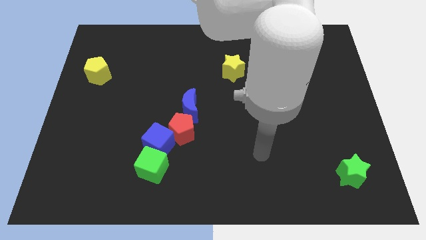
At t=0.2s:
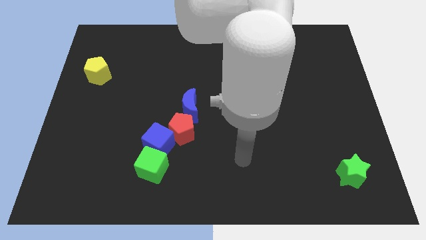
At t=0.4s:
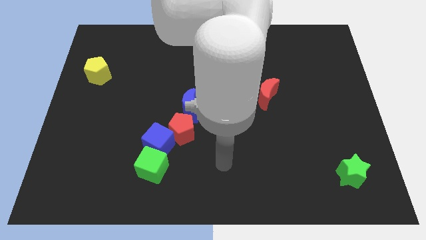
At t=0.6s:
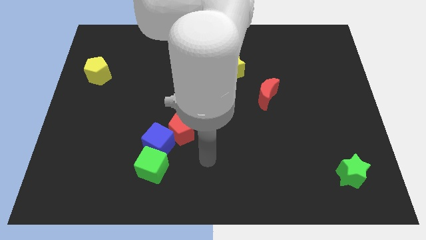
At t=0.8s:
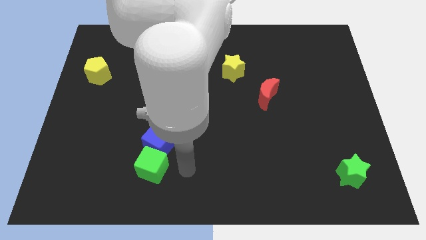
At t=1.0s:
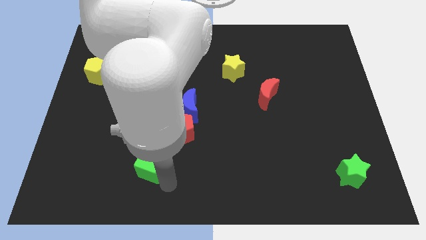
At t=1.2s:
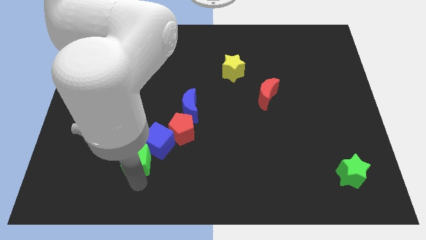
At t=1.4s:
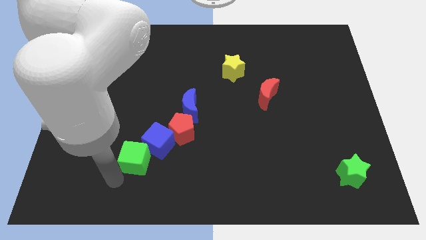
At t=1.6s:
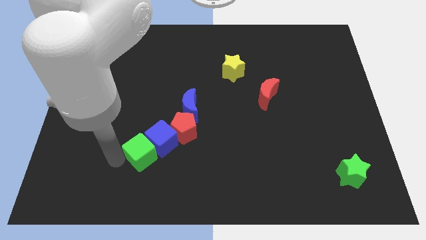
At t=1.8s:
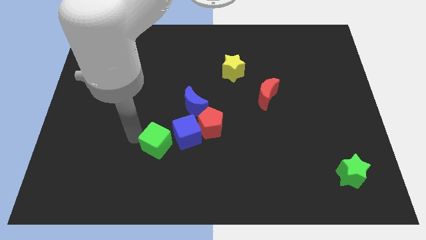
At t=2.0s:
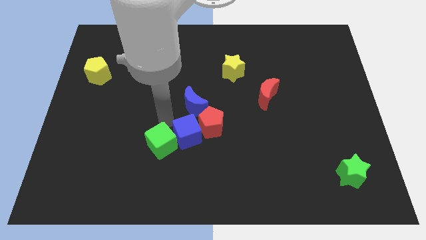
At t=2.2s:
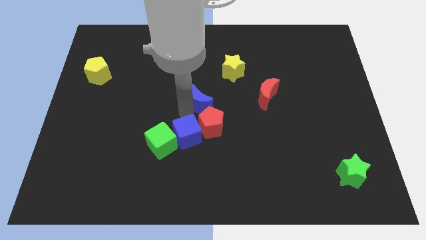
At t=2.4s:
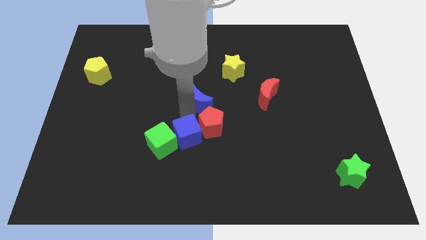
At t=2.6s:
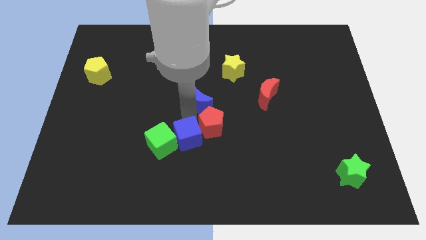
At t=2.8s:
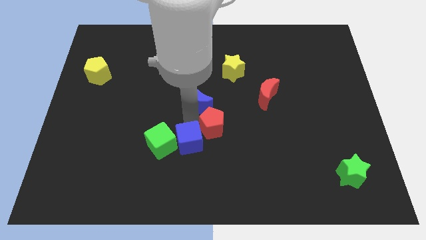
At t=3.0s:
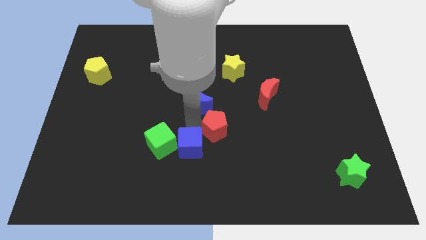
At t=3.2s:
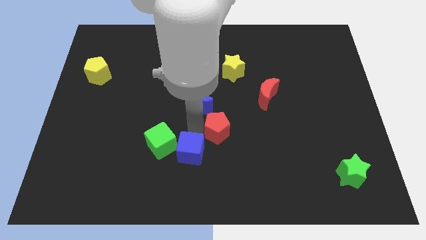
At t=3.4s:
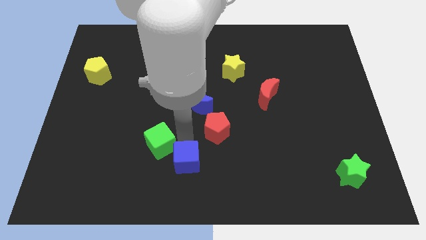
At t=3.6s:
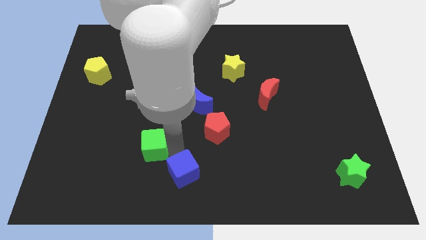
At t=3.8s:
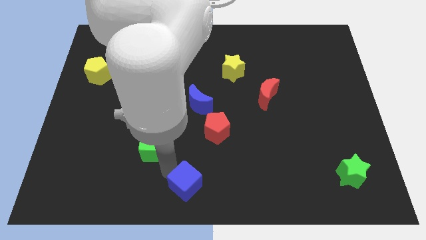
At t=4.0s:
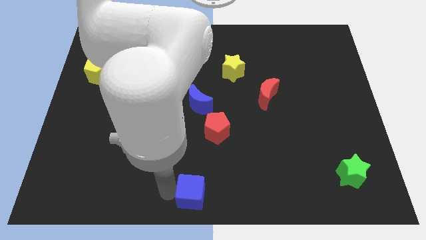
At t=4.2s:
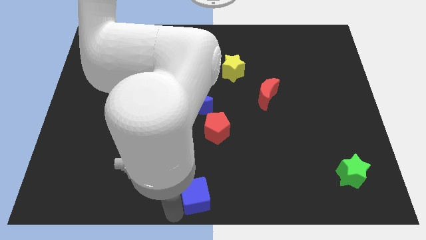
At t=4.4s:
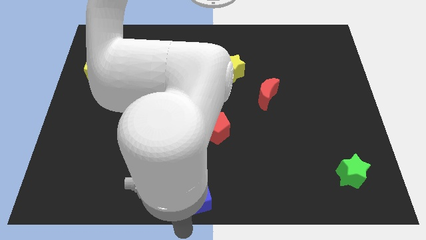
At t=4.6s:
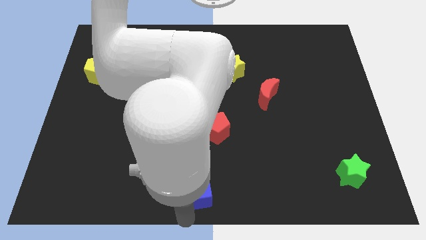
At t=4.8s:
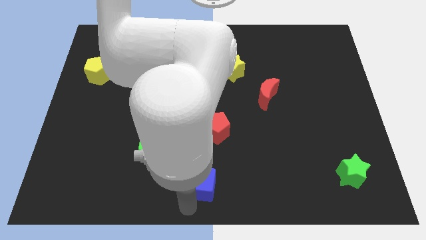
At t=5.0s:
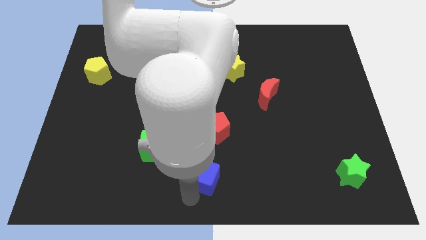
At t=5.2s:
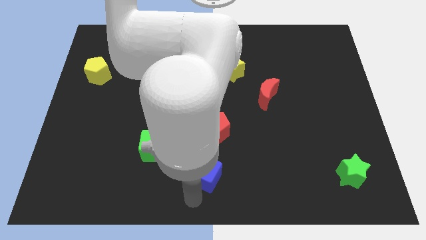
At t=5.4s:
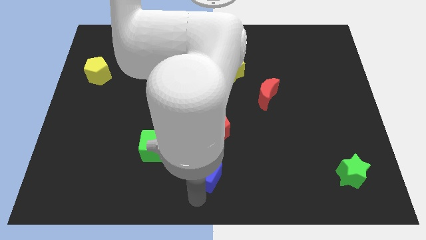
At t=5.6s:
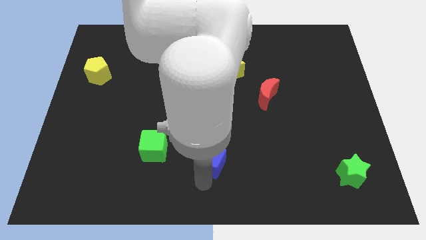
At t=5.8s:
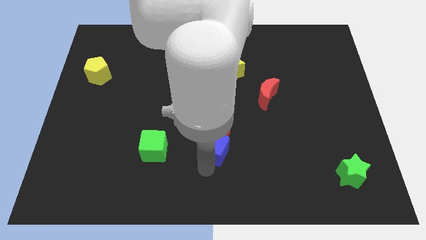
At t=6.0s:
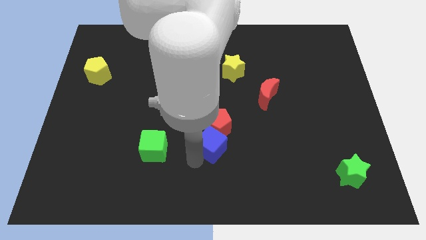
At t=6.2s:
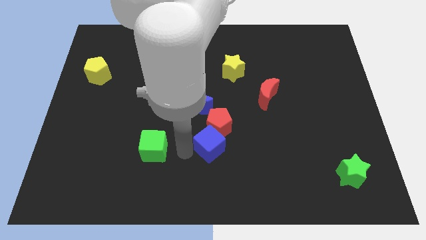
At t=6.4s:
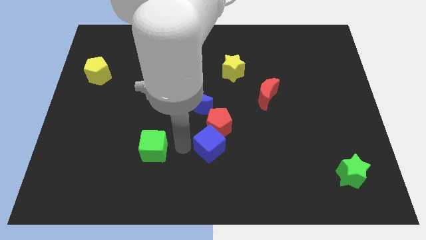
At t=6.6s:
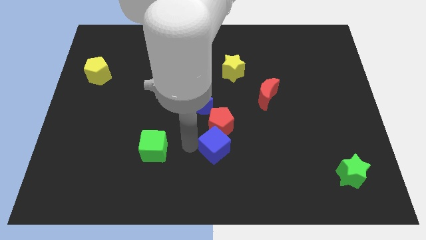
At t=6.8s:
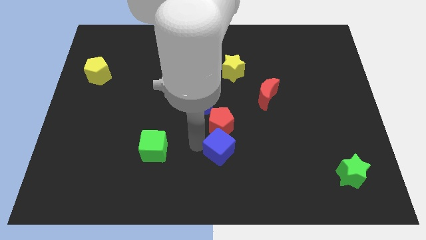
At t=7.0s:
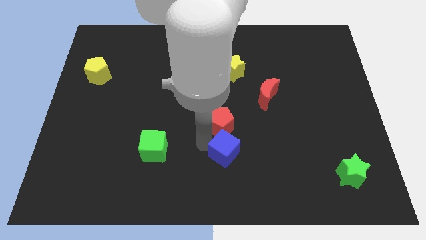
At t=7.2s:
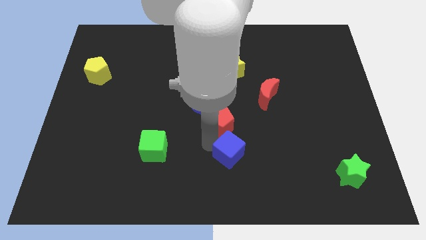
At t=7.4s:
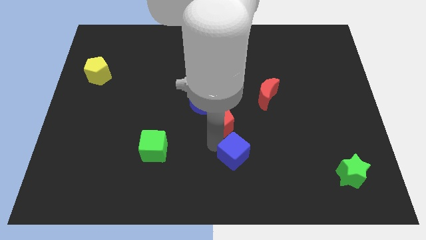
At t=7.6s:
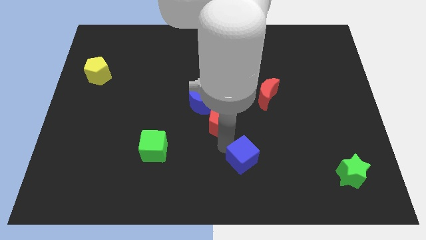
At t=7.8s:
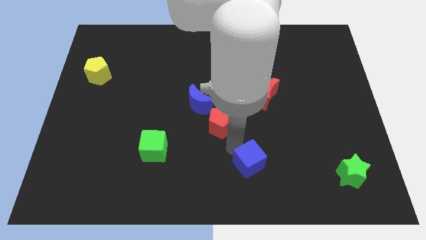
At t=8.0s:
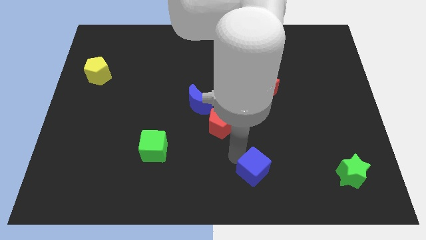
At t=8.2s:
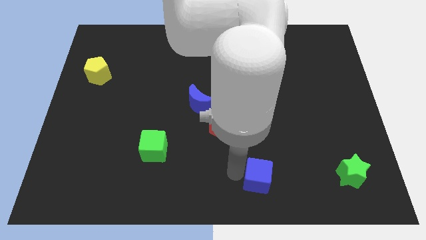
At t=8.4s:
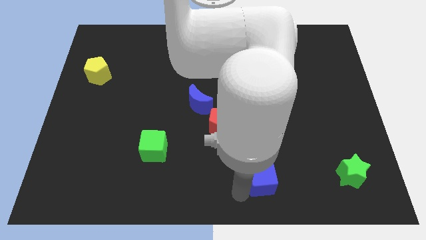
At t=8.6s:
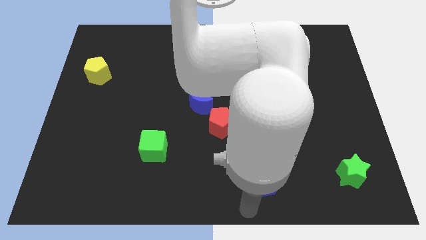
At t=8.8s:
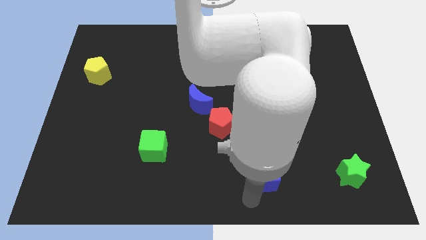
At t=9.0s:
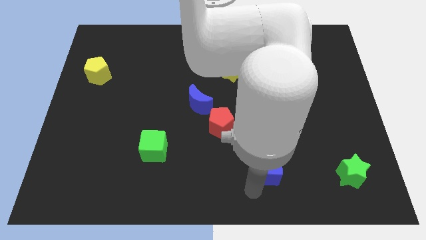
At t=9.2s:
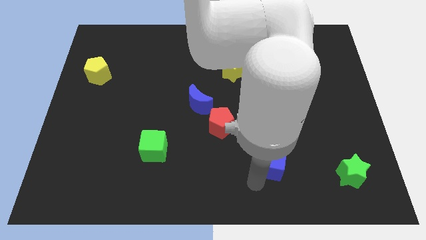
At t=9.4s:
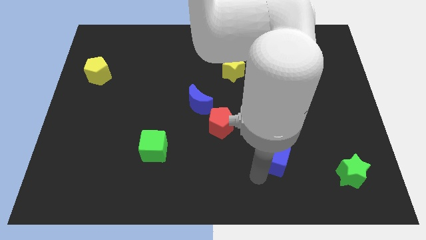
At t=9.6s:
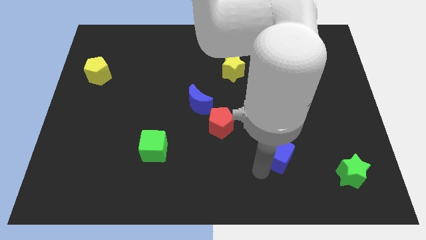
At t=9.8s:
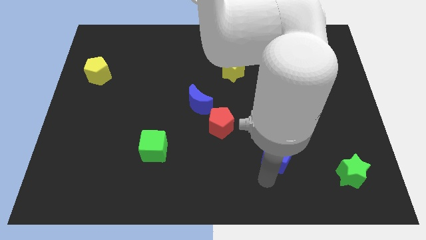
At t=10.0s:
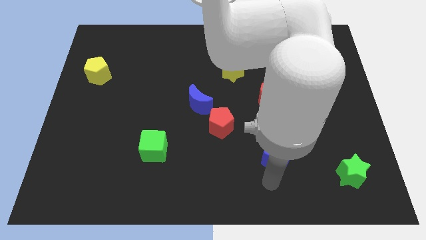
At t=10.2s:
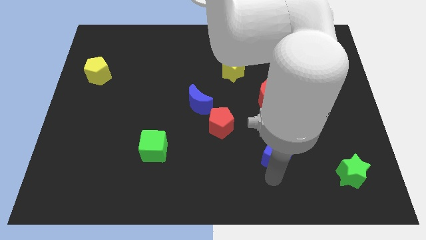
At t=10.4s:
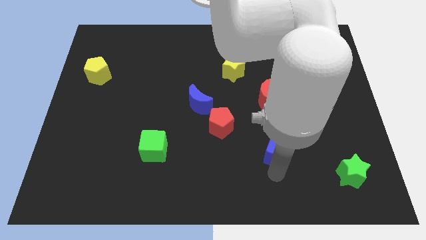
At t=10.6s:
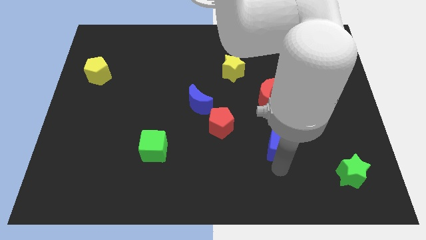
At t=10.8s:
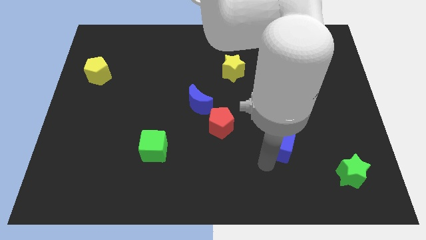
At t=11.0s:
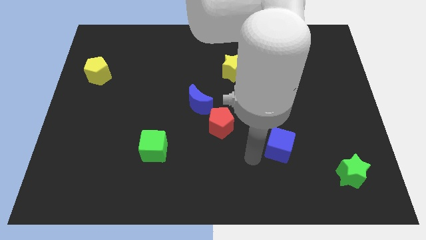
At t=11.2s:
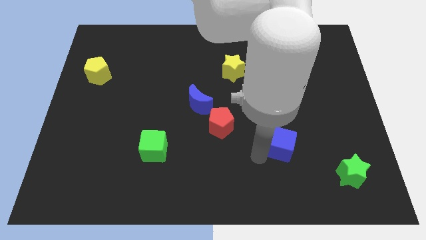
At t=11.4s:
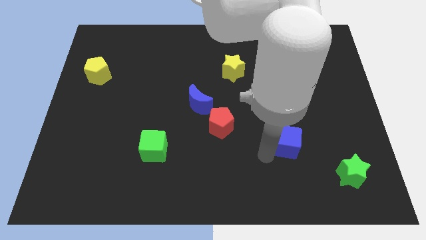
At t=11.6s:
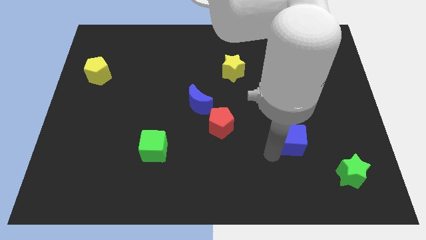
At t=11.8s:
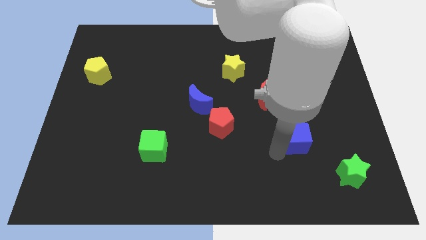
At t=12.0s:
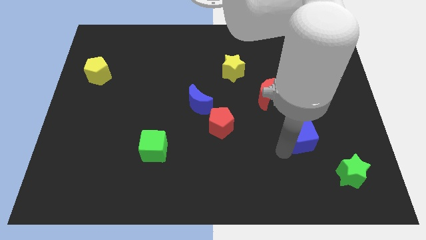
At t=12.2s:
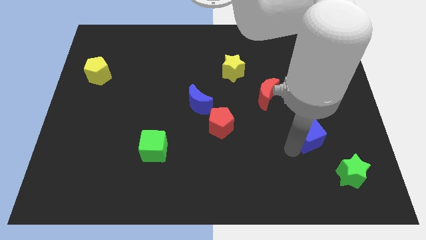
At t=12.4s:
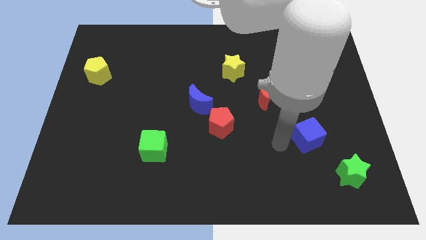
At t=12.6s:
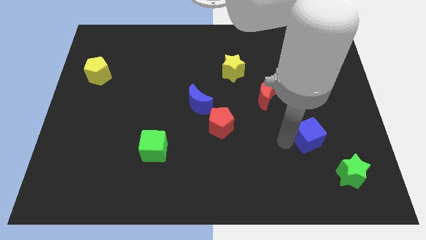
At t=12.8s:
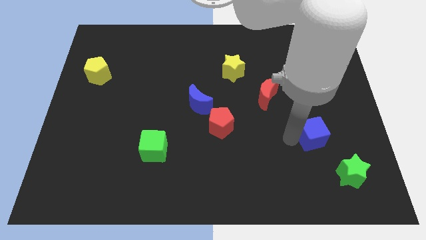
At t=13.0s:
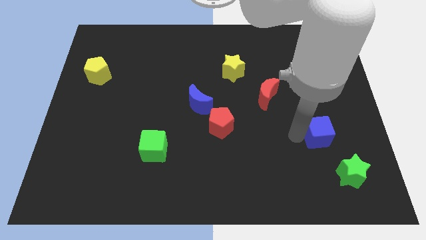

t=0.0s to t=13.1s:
slide the blue cube above the green star

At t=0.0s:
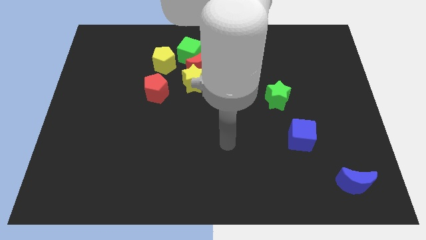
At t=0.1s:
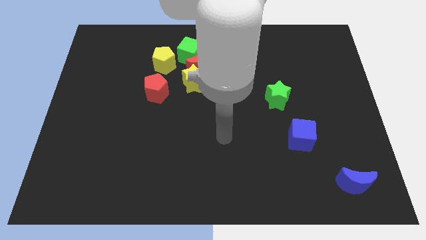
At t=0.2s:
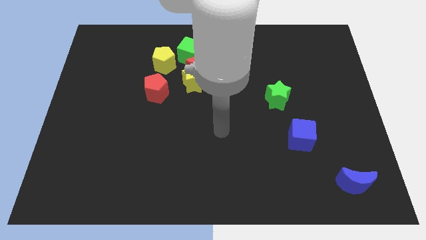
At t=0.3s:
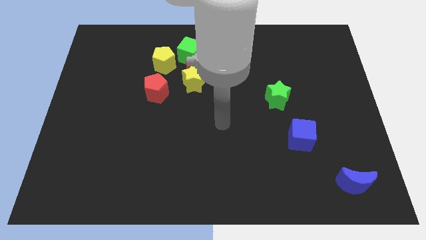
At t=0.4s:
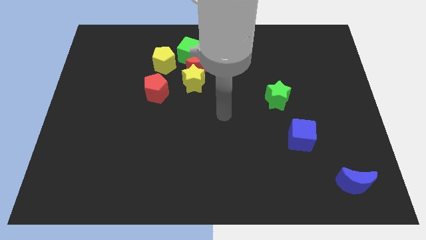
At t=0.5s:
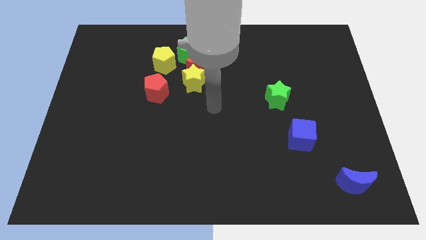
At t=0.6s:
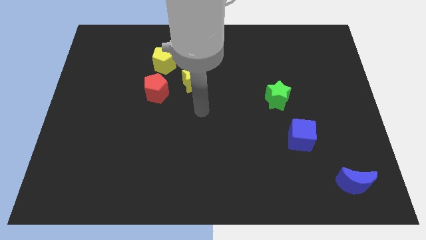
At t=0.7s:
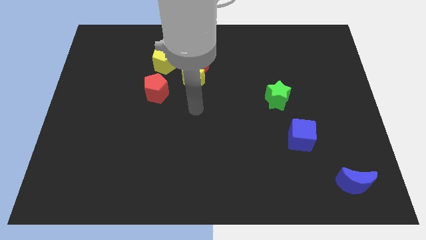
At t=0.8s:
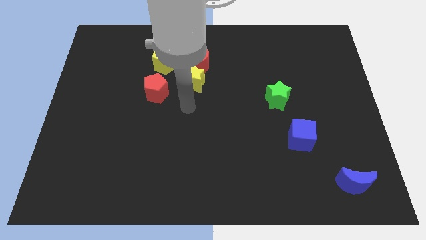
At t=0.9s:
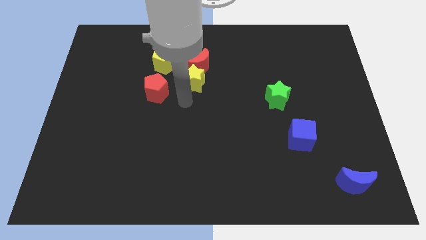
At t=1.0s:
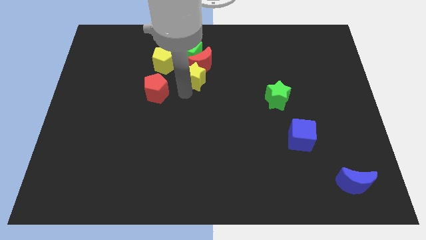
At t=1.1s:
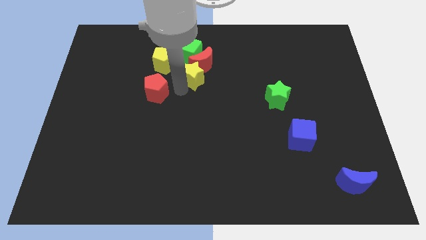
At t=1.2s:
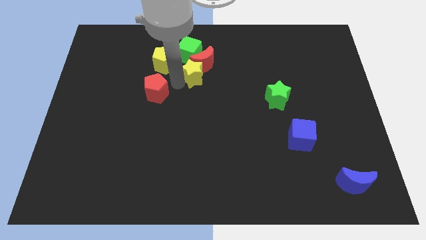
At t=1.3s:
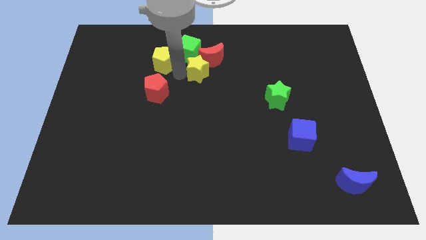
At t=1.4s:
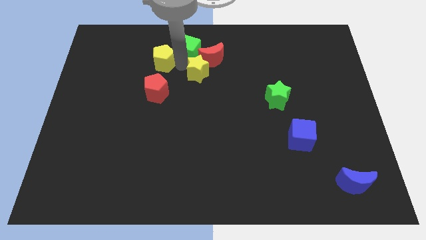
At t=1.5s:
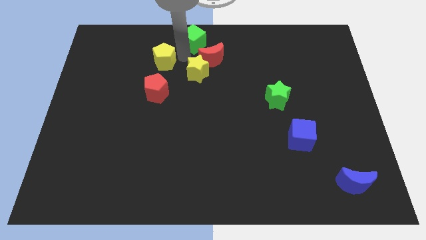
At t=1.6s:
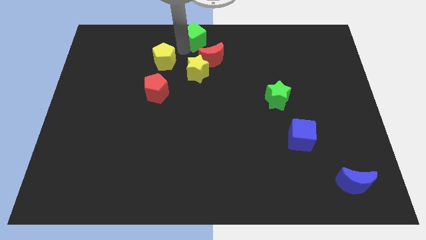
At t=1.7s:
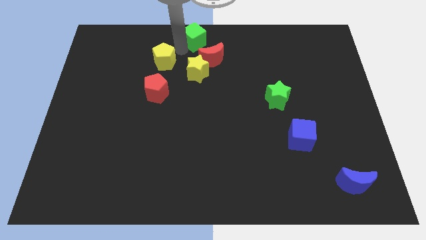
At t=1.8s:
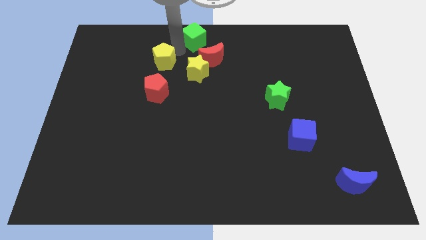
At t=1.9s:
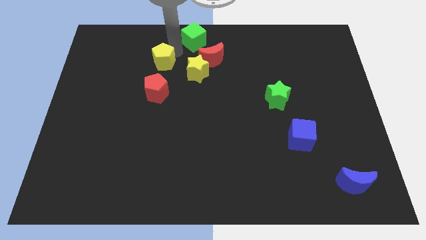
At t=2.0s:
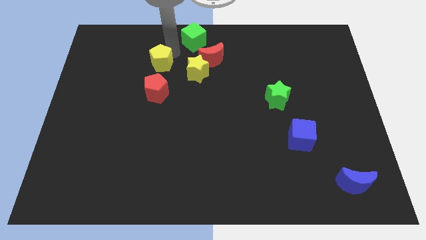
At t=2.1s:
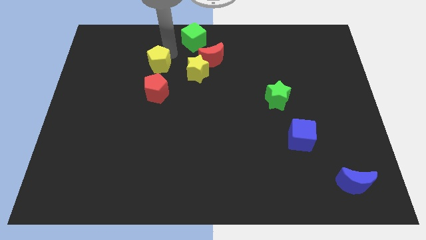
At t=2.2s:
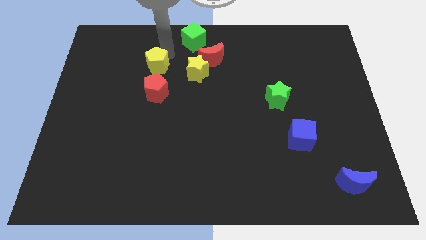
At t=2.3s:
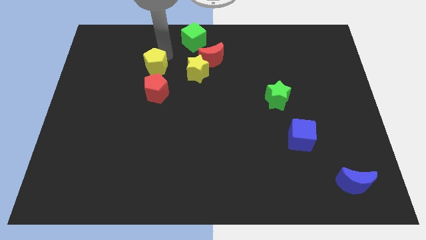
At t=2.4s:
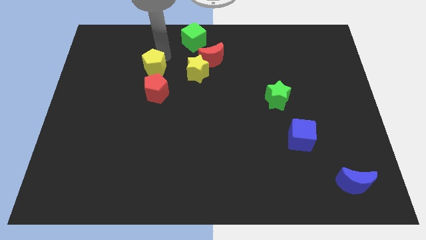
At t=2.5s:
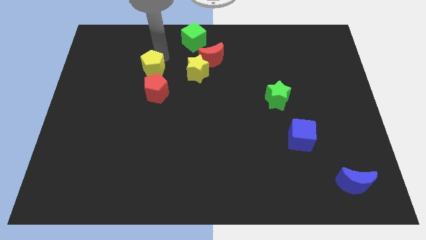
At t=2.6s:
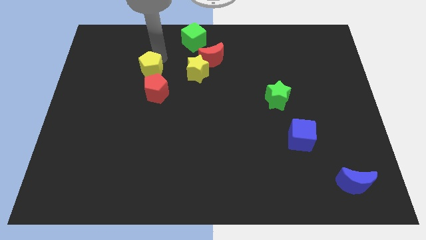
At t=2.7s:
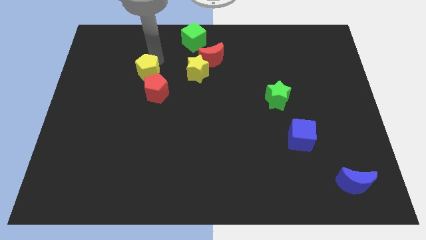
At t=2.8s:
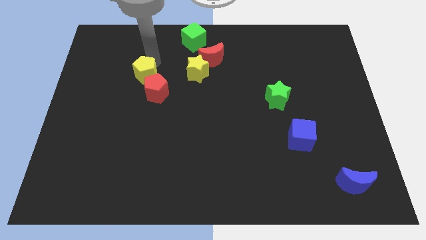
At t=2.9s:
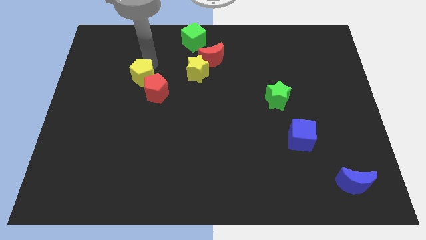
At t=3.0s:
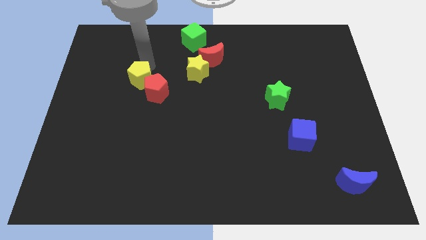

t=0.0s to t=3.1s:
push the yellow pentagon to the left side of the red pentagon
